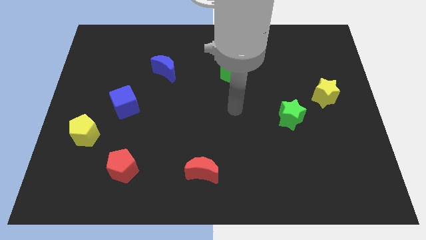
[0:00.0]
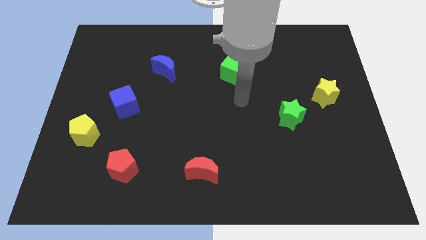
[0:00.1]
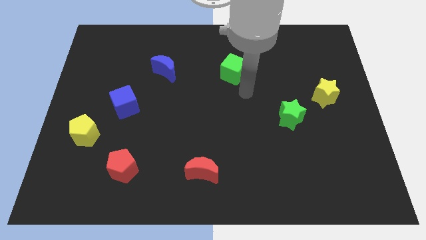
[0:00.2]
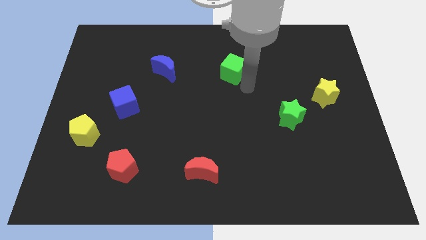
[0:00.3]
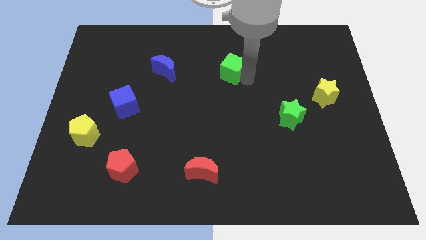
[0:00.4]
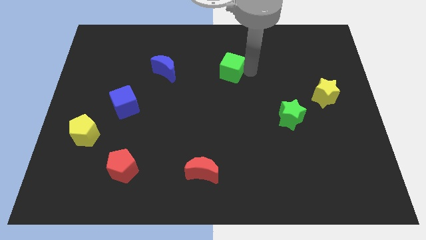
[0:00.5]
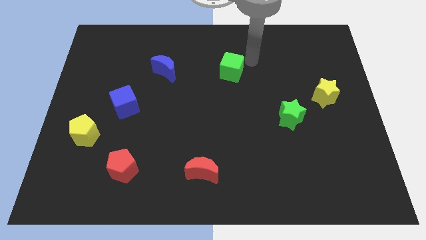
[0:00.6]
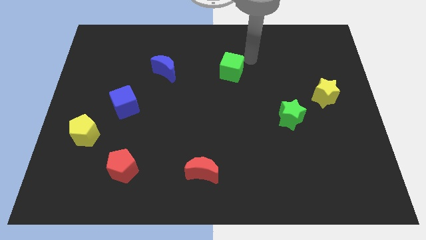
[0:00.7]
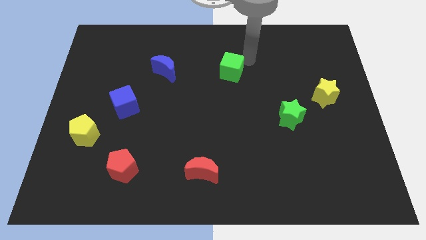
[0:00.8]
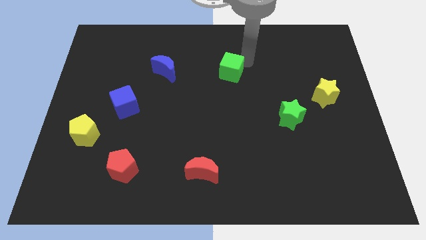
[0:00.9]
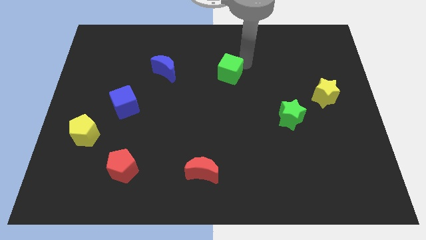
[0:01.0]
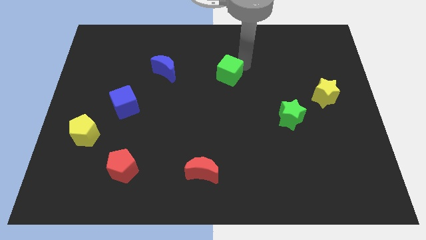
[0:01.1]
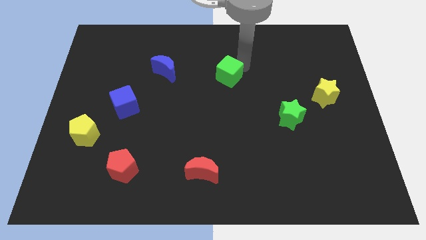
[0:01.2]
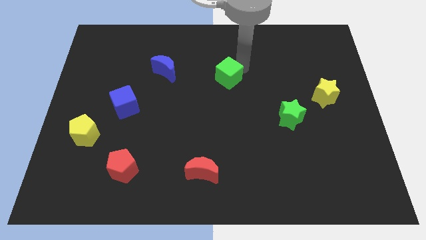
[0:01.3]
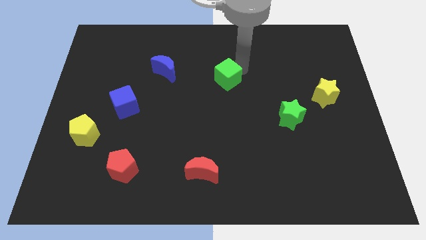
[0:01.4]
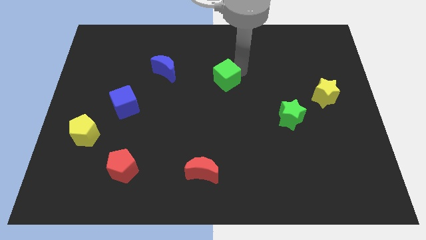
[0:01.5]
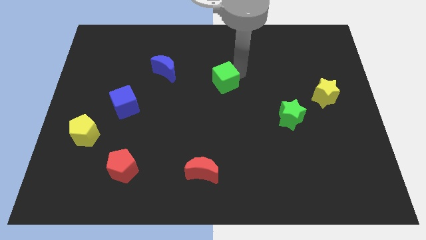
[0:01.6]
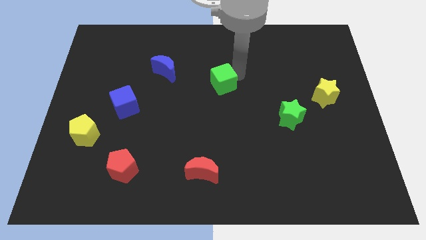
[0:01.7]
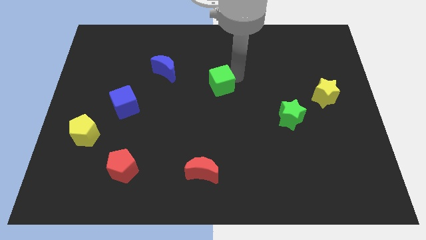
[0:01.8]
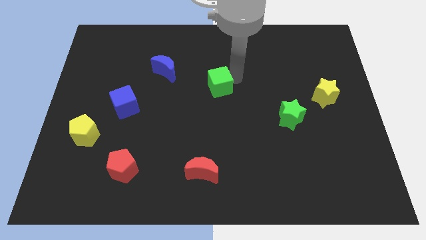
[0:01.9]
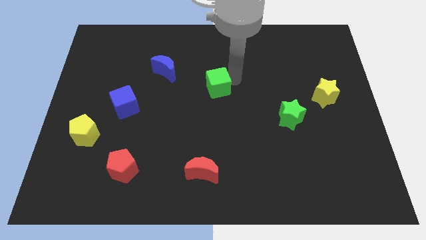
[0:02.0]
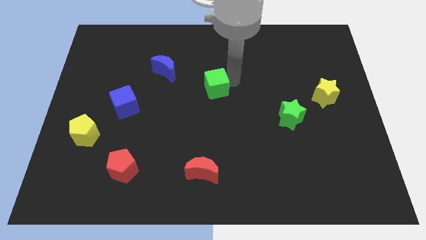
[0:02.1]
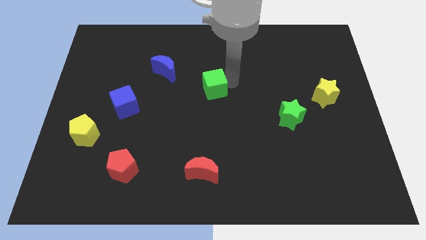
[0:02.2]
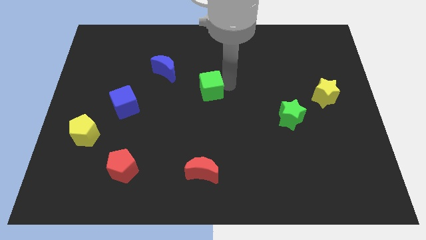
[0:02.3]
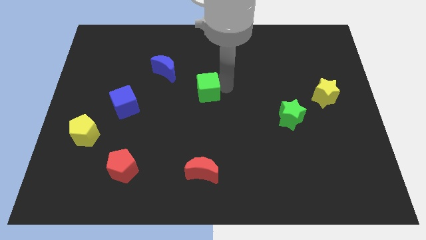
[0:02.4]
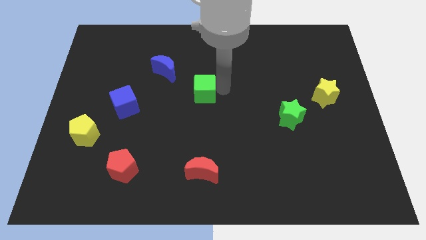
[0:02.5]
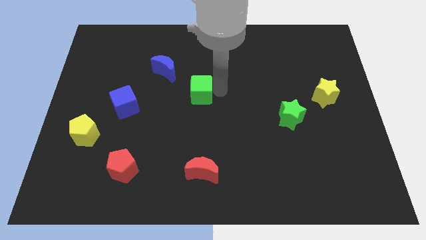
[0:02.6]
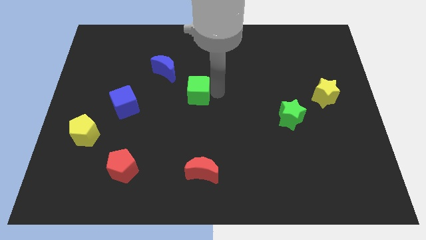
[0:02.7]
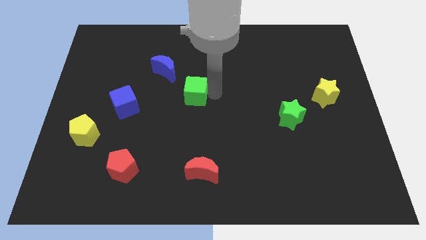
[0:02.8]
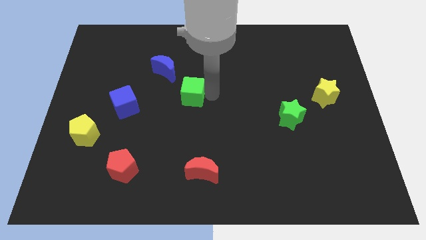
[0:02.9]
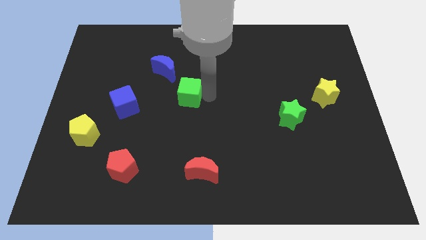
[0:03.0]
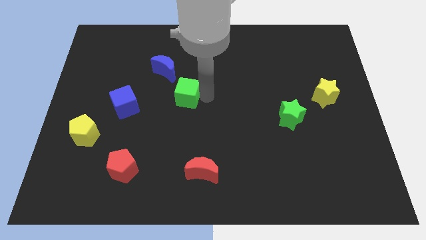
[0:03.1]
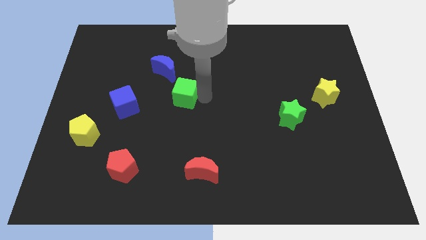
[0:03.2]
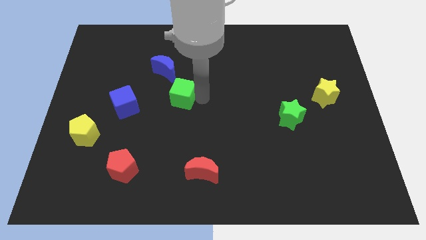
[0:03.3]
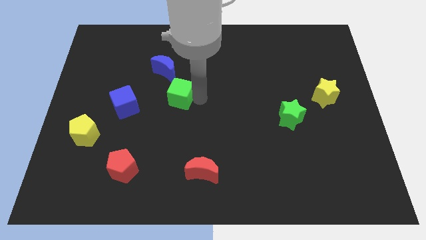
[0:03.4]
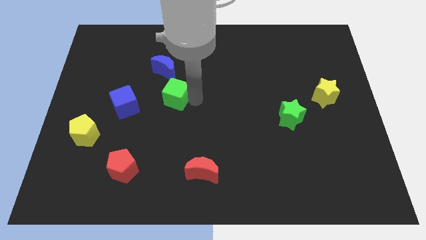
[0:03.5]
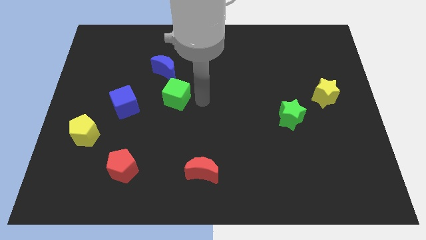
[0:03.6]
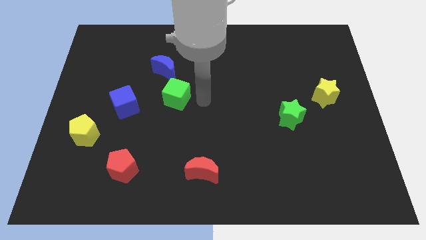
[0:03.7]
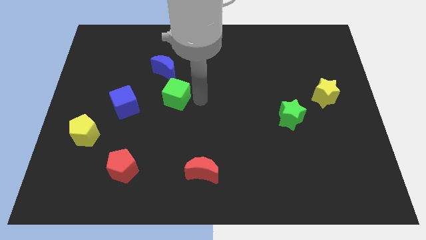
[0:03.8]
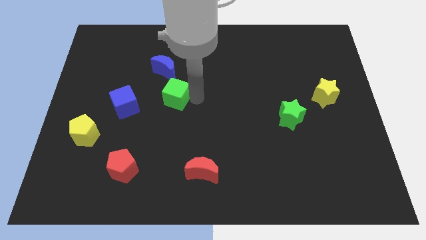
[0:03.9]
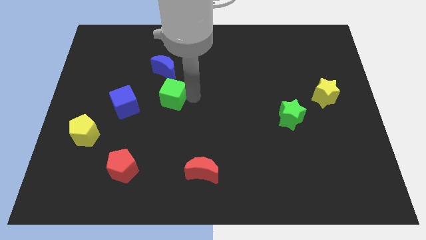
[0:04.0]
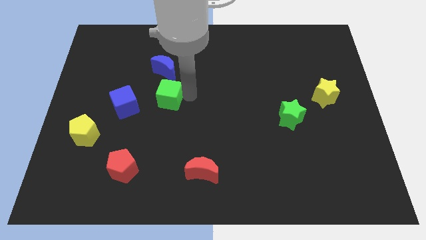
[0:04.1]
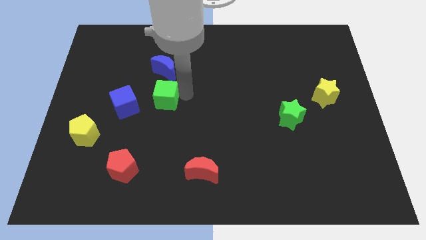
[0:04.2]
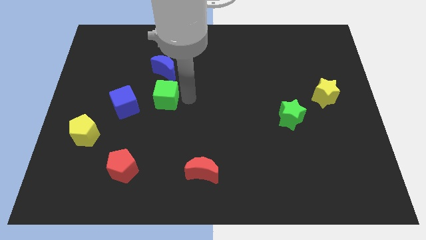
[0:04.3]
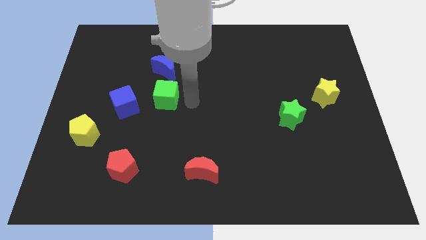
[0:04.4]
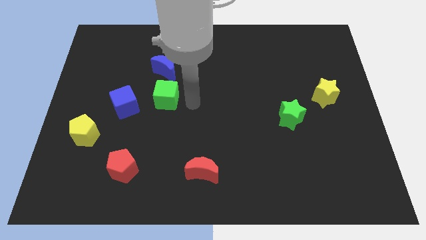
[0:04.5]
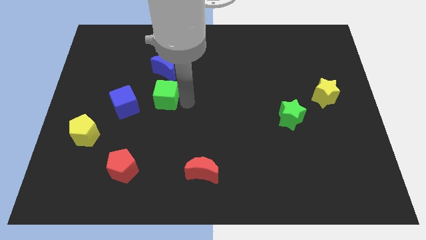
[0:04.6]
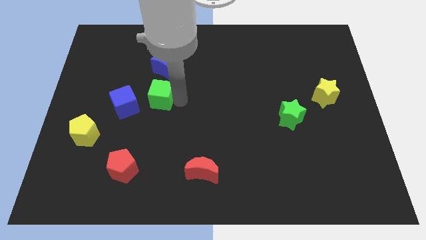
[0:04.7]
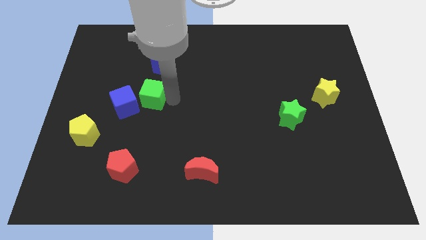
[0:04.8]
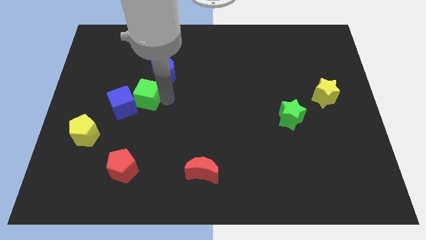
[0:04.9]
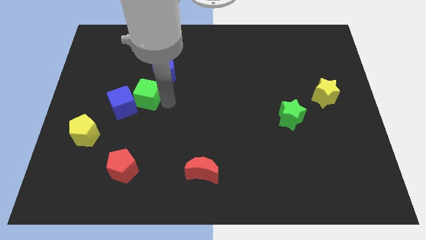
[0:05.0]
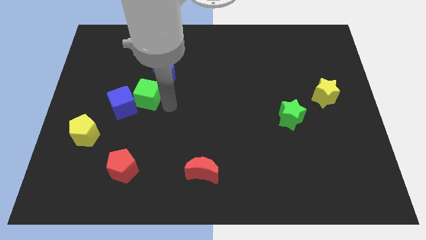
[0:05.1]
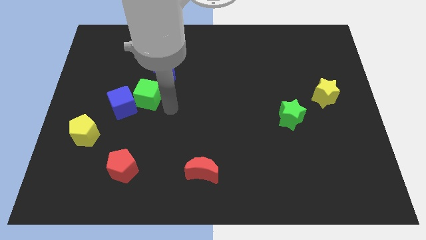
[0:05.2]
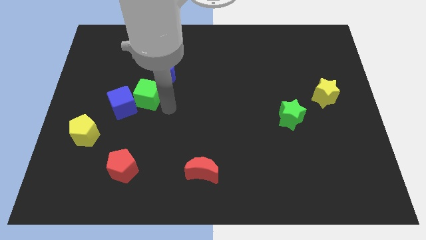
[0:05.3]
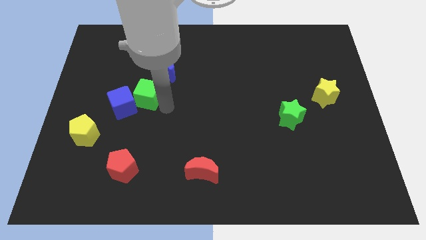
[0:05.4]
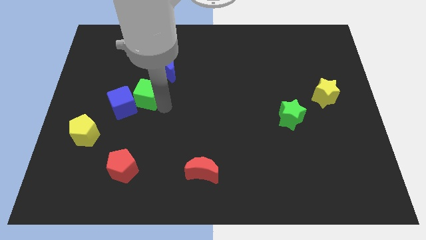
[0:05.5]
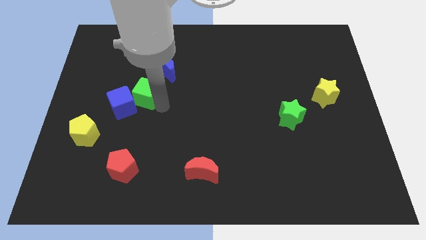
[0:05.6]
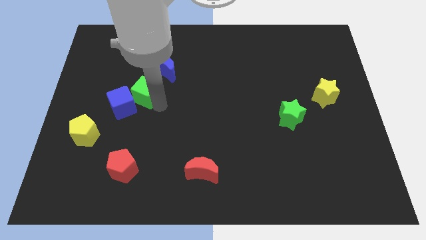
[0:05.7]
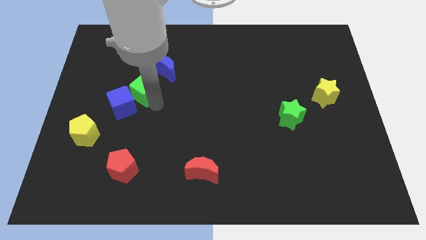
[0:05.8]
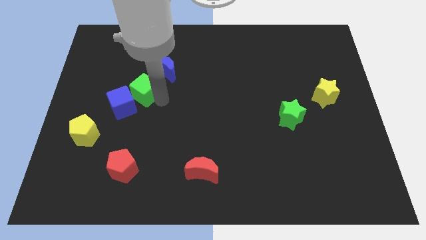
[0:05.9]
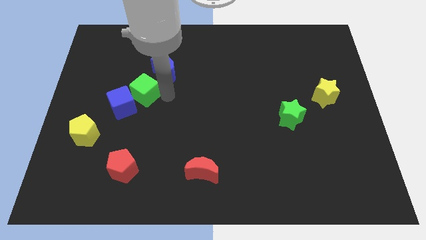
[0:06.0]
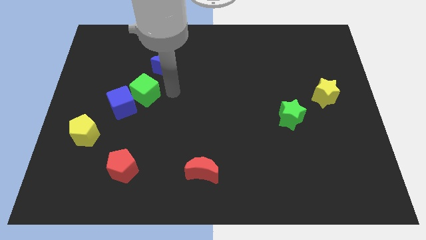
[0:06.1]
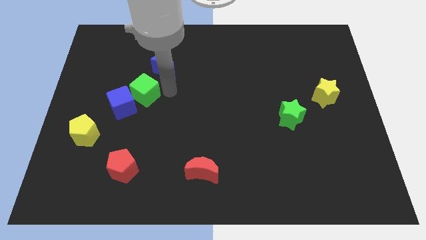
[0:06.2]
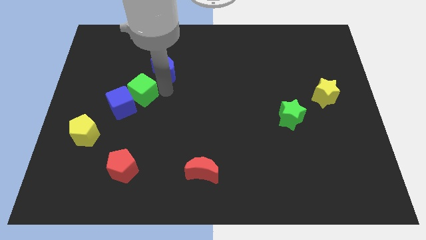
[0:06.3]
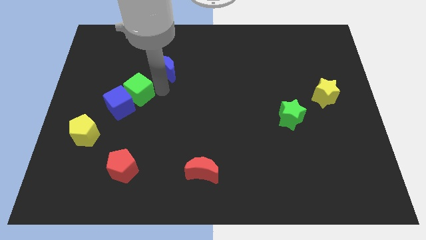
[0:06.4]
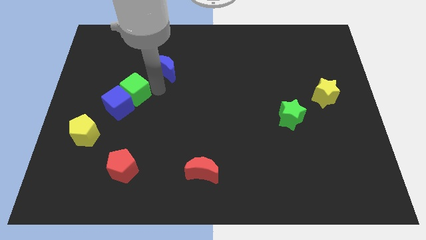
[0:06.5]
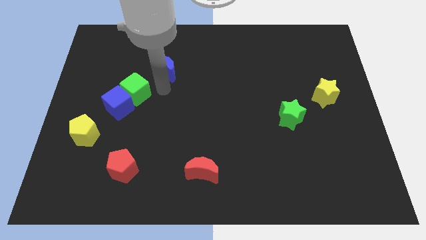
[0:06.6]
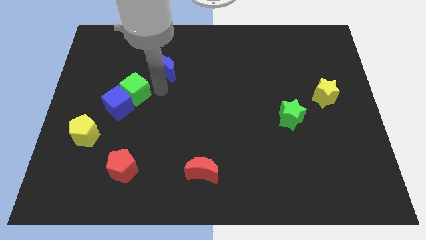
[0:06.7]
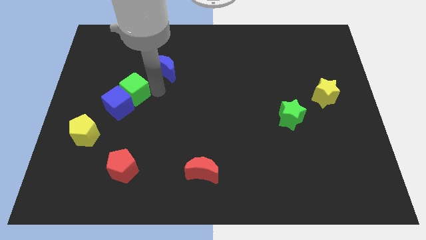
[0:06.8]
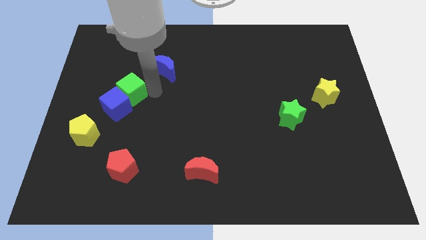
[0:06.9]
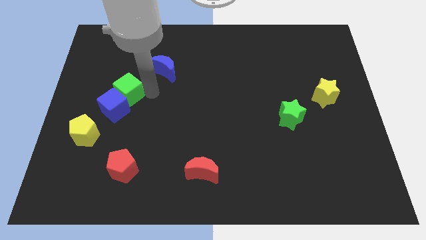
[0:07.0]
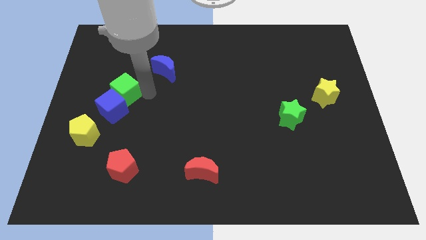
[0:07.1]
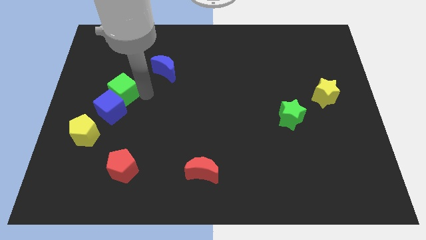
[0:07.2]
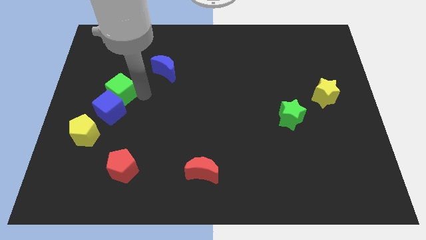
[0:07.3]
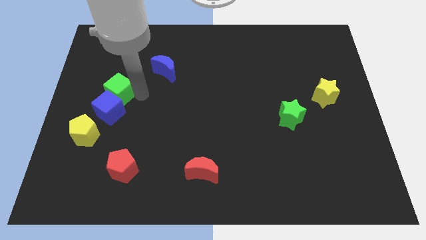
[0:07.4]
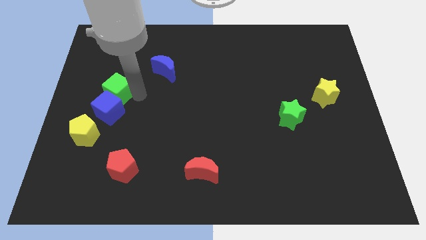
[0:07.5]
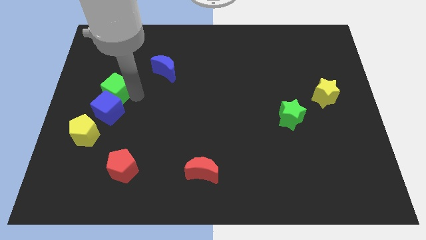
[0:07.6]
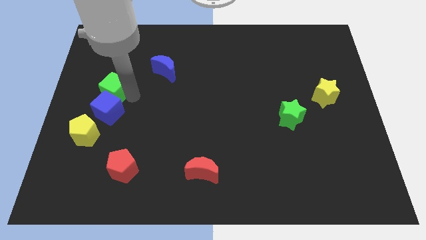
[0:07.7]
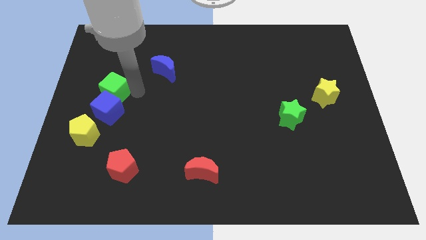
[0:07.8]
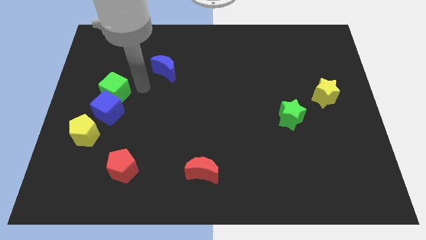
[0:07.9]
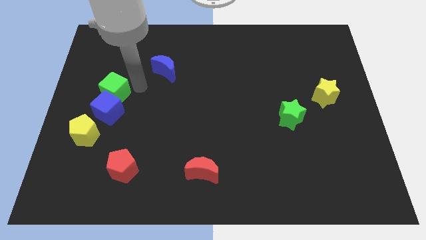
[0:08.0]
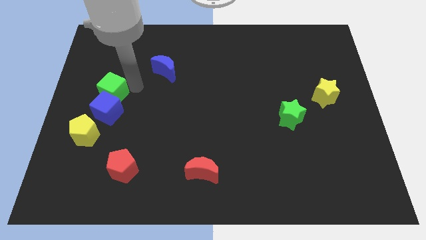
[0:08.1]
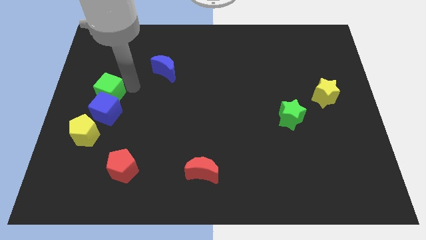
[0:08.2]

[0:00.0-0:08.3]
put the green cube to the left side
